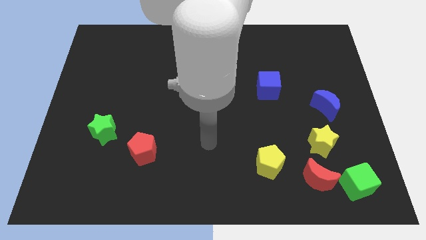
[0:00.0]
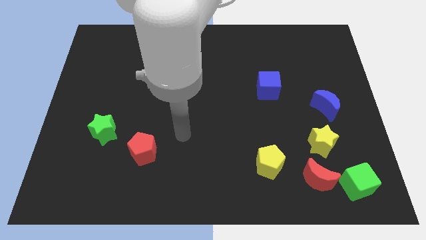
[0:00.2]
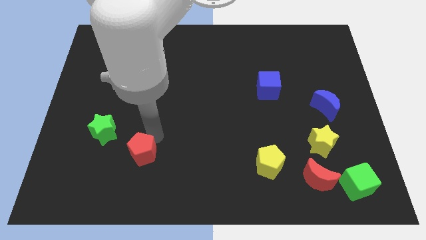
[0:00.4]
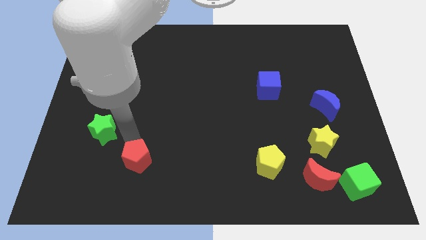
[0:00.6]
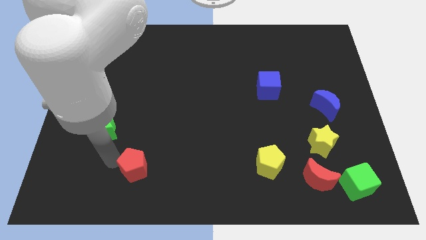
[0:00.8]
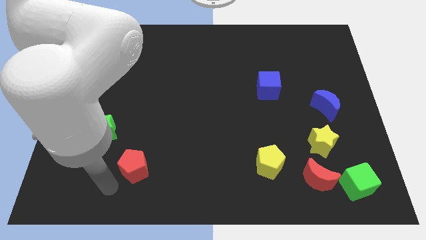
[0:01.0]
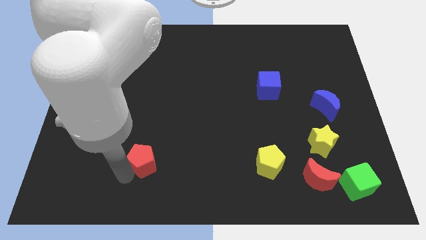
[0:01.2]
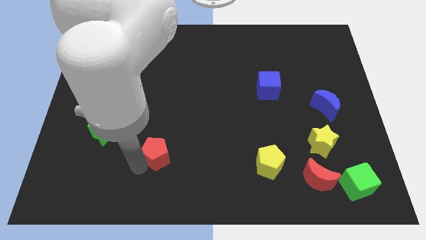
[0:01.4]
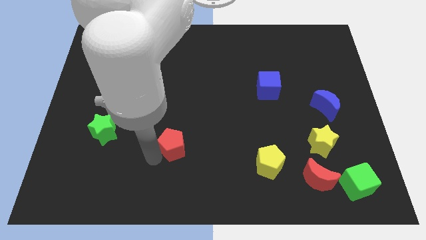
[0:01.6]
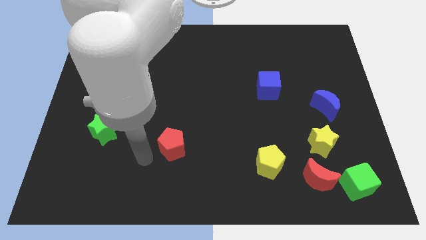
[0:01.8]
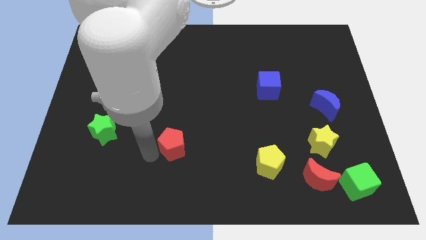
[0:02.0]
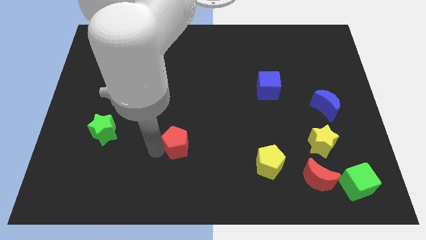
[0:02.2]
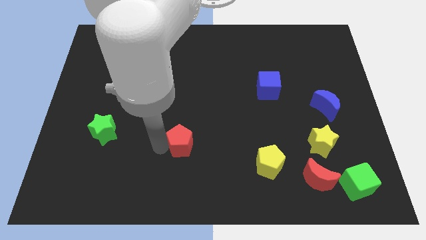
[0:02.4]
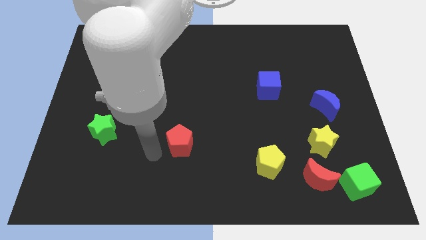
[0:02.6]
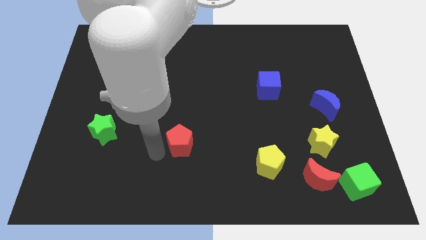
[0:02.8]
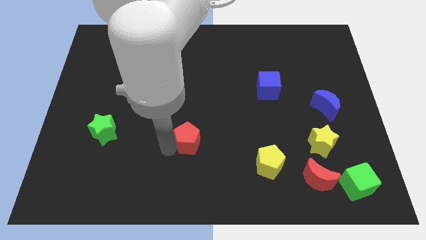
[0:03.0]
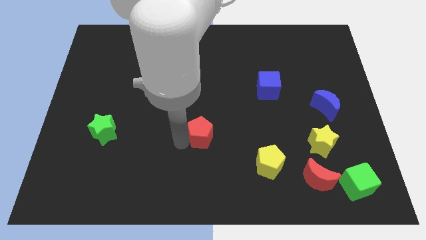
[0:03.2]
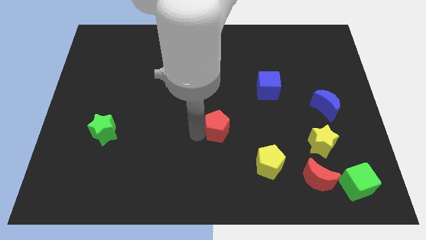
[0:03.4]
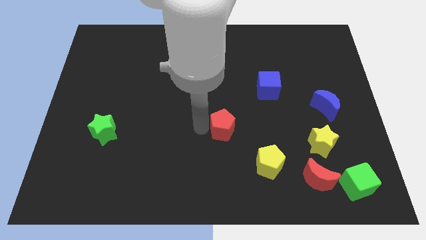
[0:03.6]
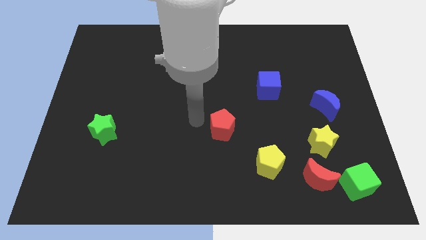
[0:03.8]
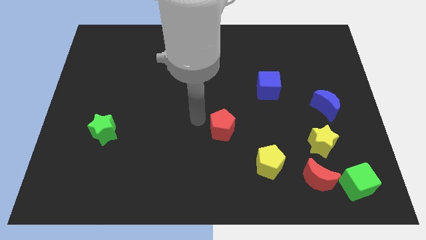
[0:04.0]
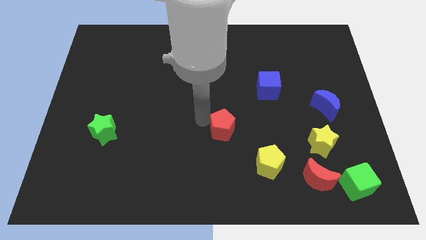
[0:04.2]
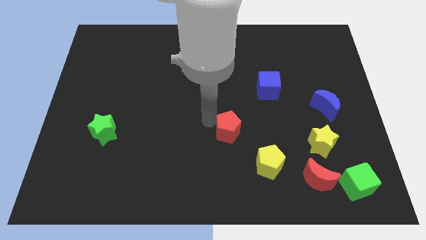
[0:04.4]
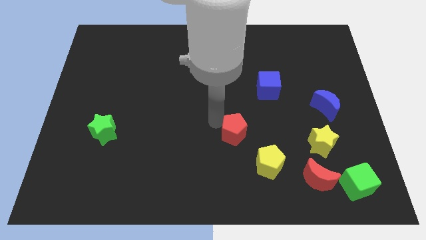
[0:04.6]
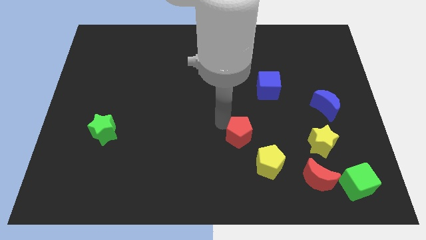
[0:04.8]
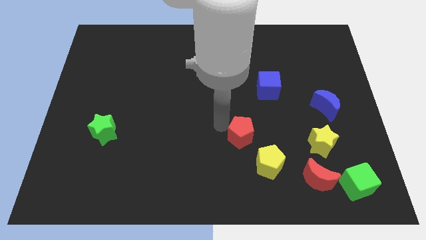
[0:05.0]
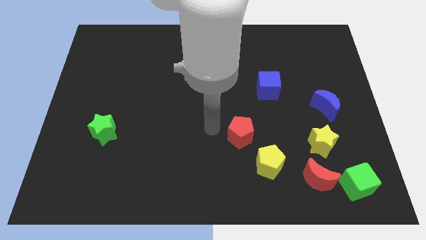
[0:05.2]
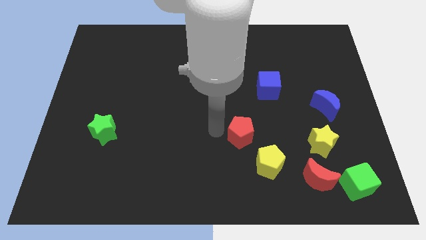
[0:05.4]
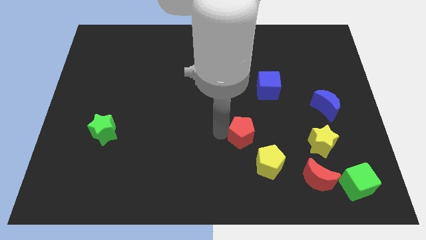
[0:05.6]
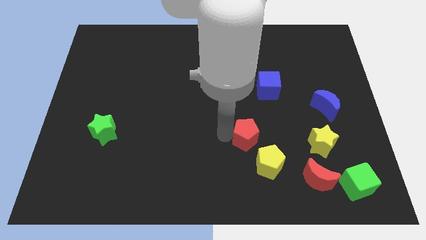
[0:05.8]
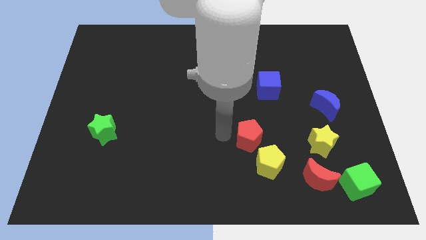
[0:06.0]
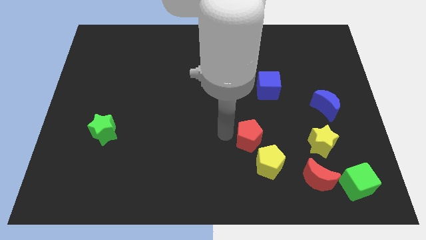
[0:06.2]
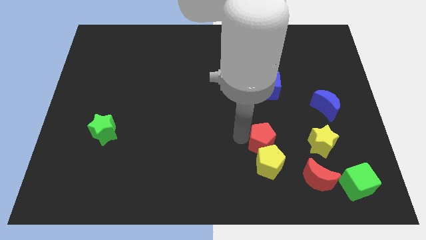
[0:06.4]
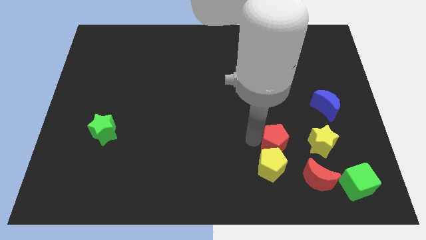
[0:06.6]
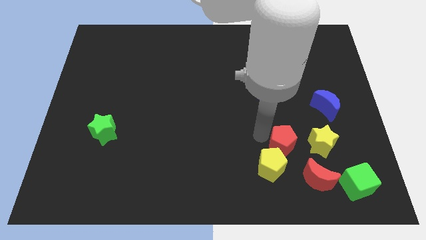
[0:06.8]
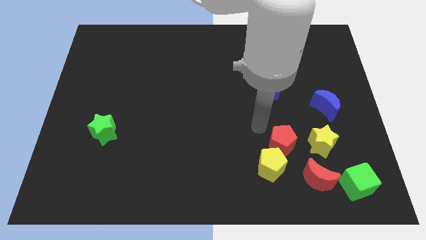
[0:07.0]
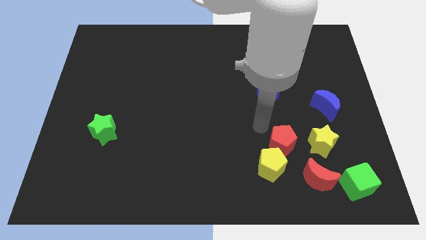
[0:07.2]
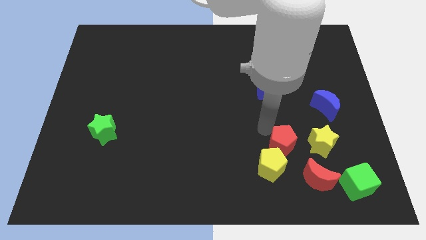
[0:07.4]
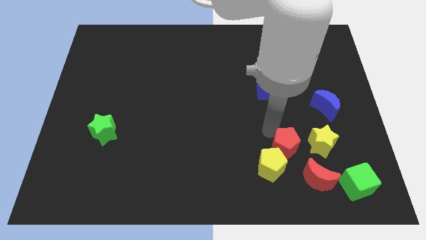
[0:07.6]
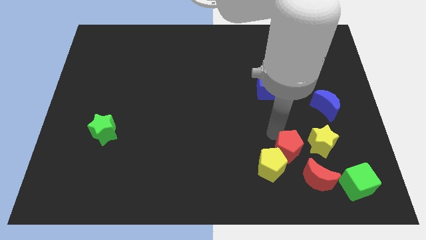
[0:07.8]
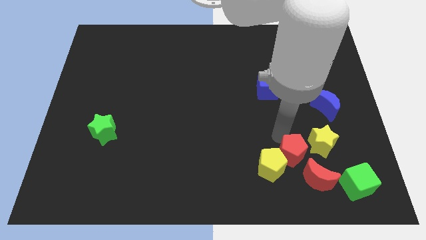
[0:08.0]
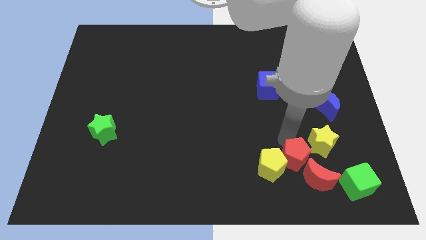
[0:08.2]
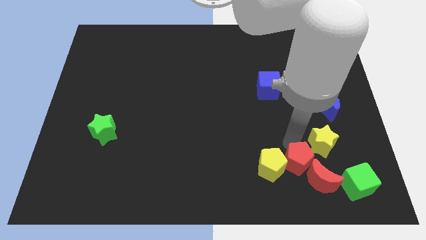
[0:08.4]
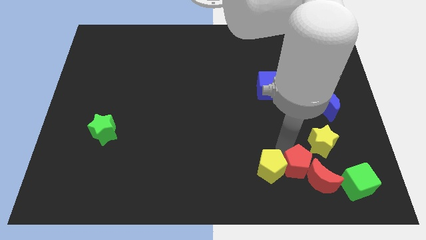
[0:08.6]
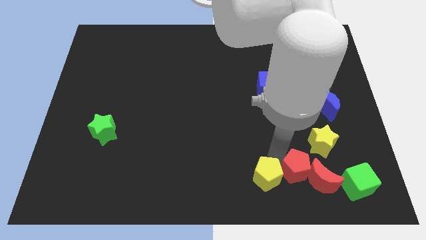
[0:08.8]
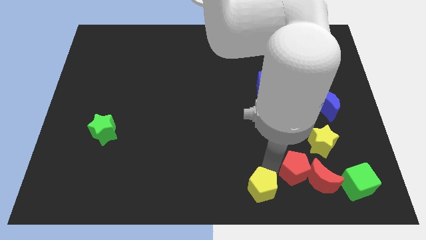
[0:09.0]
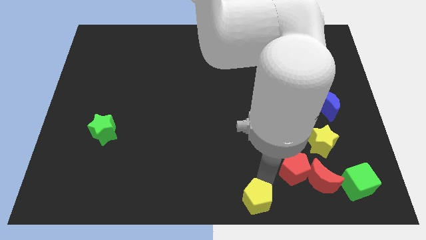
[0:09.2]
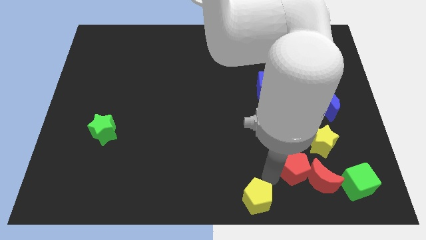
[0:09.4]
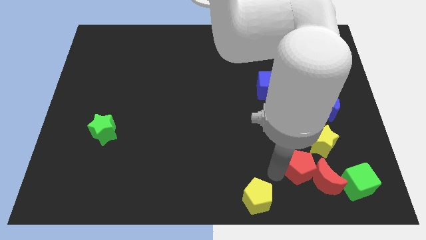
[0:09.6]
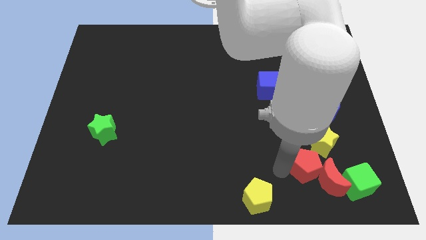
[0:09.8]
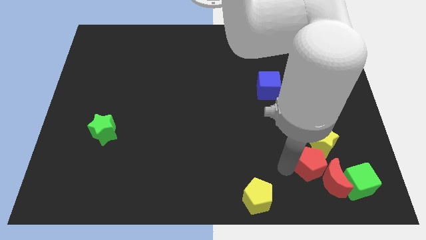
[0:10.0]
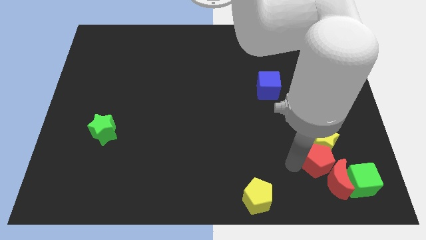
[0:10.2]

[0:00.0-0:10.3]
move the red pentagon to the bottom right of the yellow star

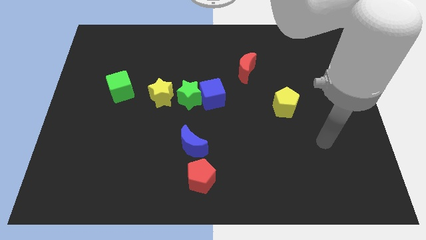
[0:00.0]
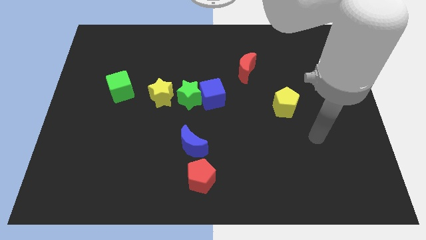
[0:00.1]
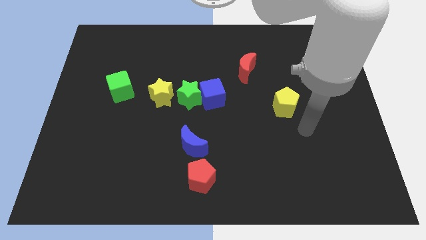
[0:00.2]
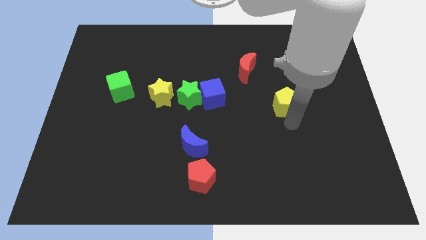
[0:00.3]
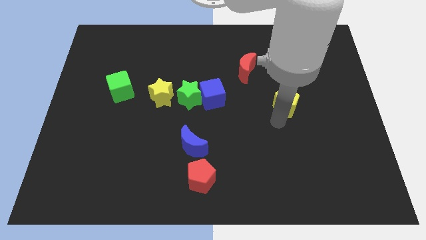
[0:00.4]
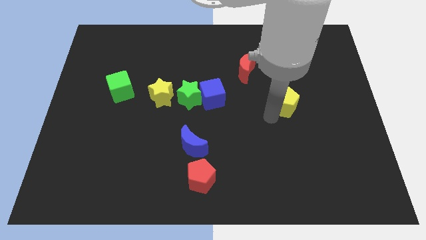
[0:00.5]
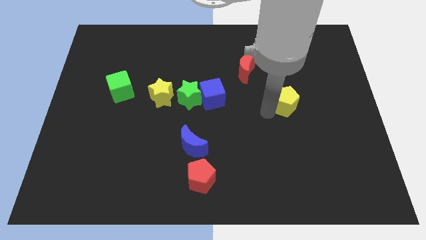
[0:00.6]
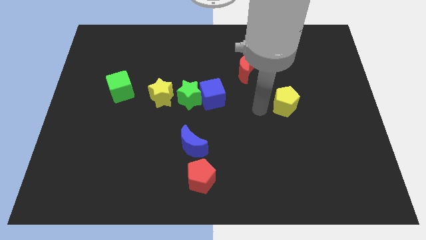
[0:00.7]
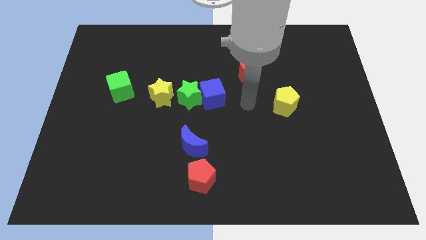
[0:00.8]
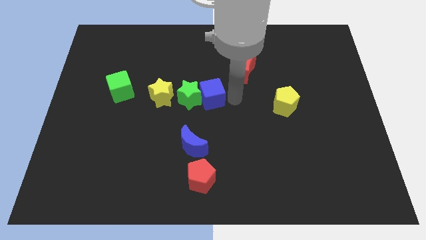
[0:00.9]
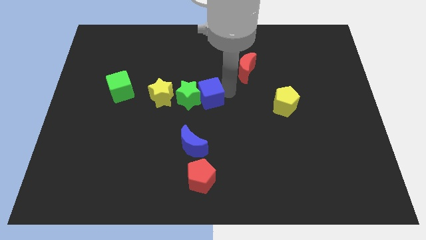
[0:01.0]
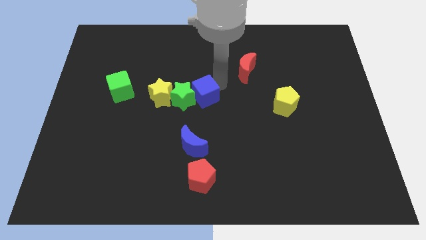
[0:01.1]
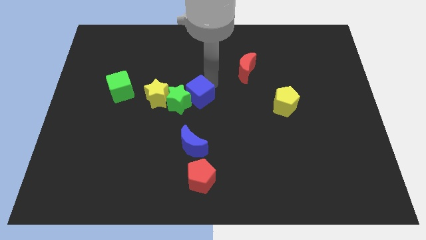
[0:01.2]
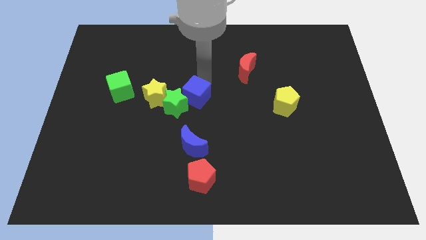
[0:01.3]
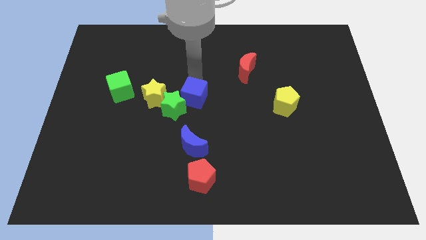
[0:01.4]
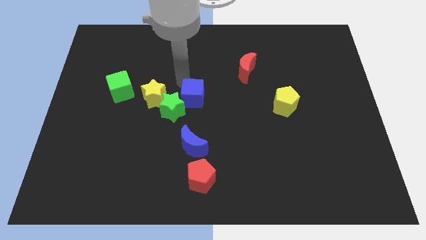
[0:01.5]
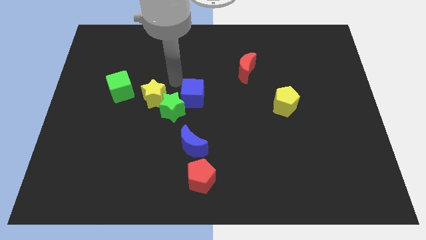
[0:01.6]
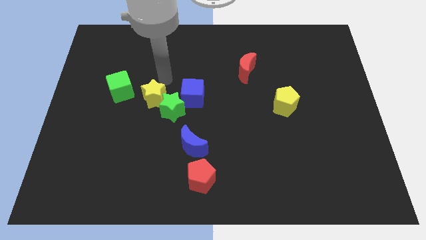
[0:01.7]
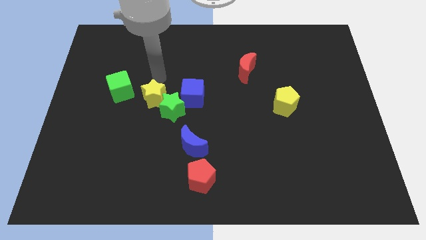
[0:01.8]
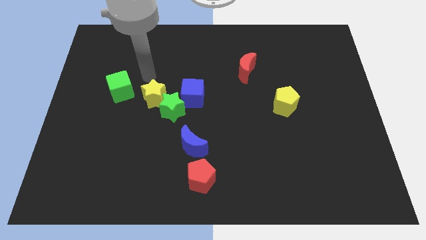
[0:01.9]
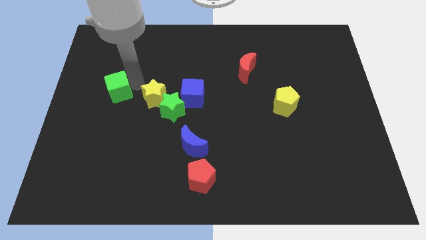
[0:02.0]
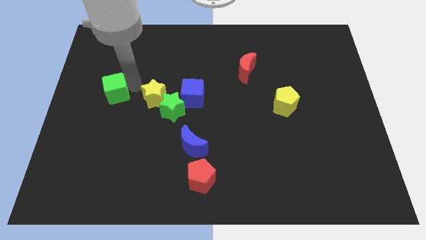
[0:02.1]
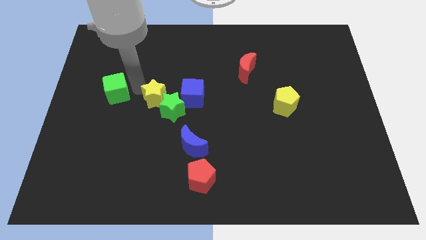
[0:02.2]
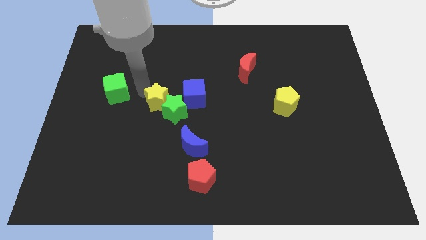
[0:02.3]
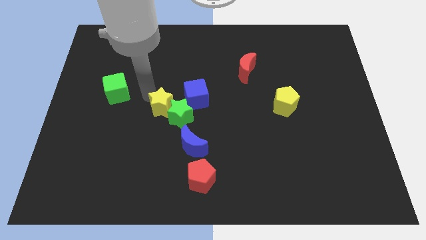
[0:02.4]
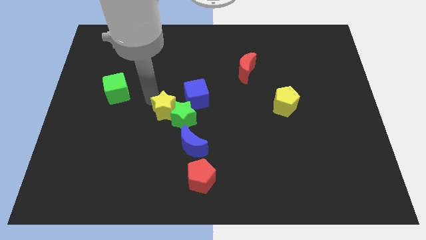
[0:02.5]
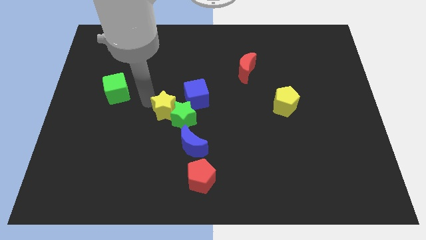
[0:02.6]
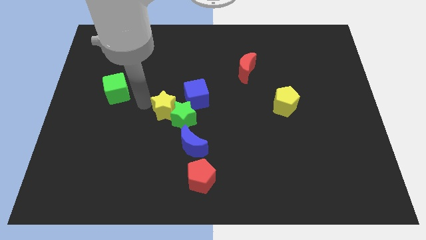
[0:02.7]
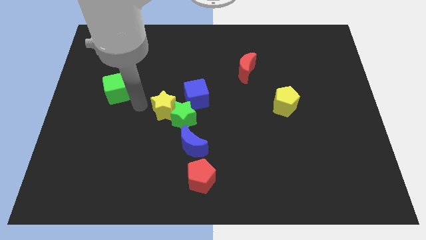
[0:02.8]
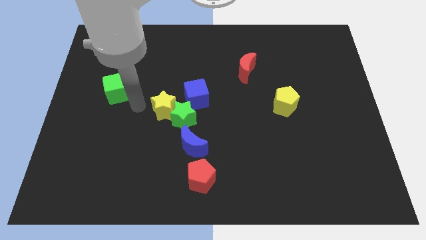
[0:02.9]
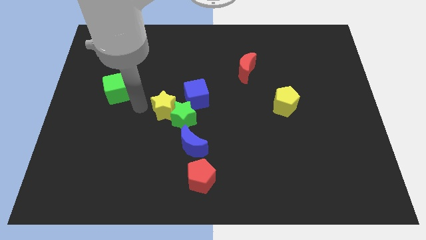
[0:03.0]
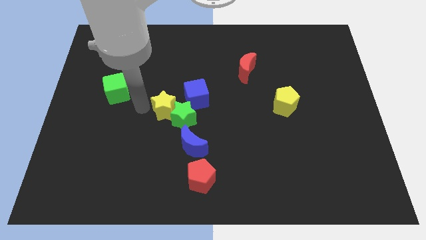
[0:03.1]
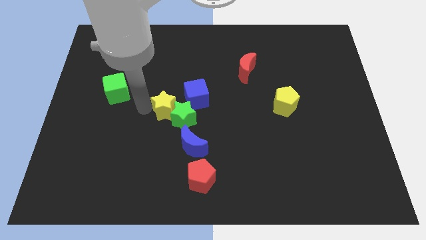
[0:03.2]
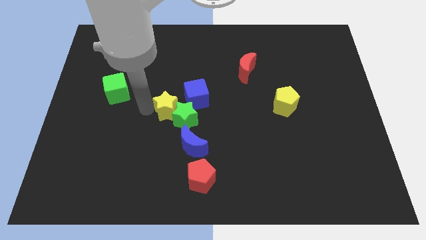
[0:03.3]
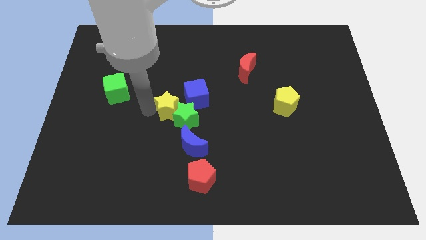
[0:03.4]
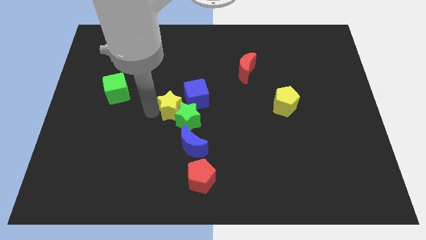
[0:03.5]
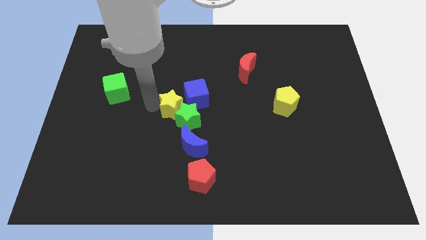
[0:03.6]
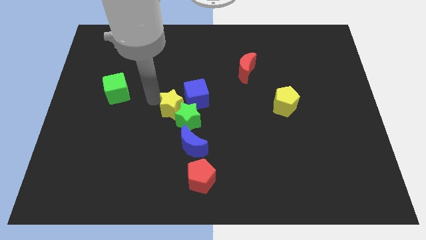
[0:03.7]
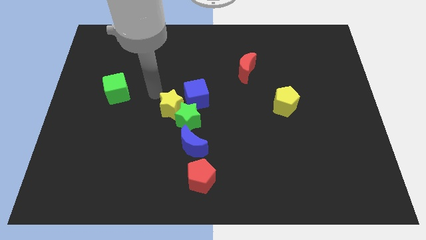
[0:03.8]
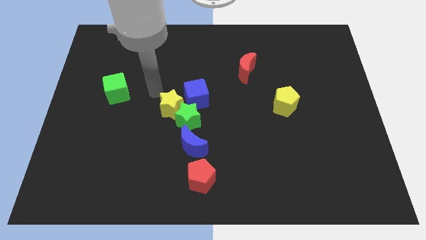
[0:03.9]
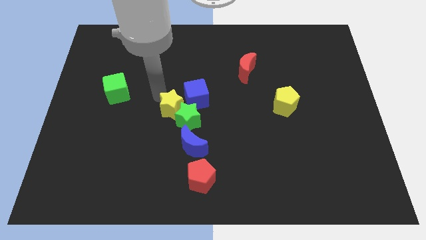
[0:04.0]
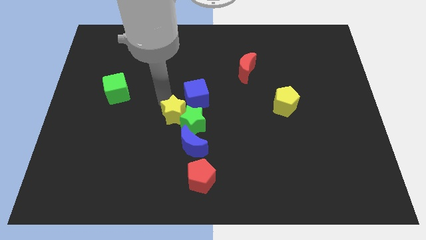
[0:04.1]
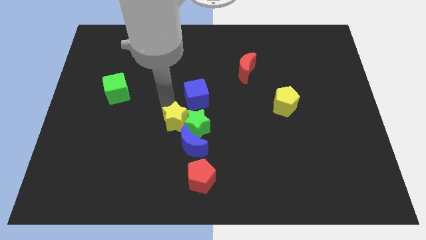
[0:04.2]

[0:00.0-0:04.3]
put the yellow star to the bottom of the blue cube
